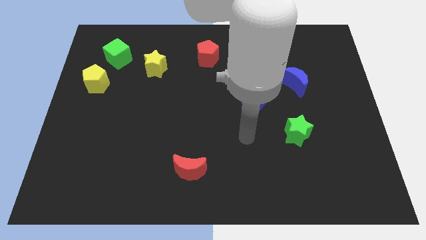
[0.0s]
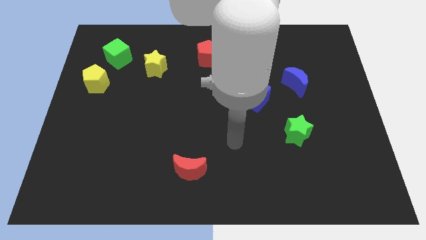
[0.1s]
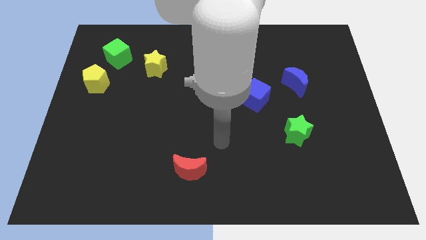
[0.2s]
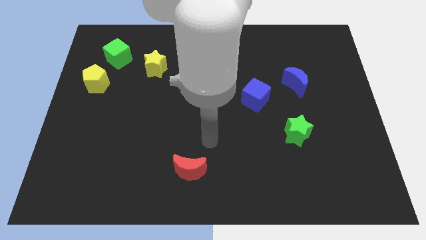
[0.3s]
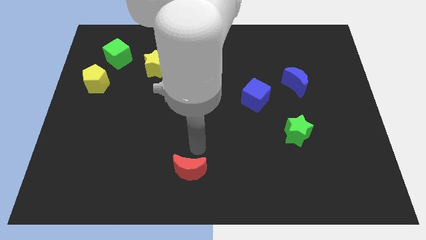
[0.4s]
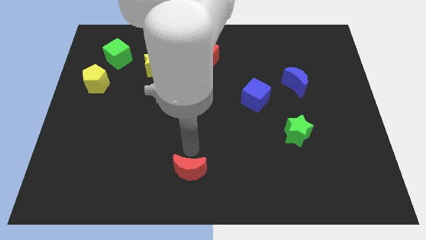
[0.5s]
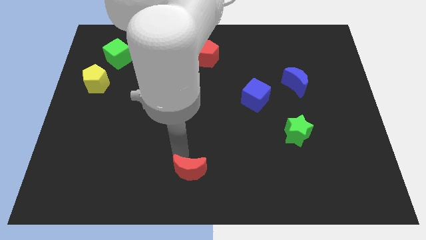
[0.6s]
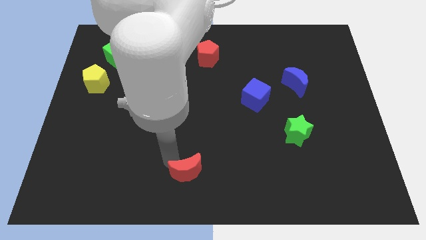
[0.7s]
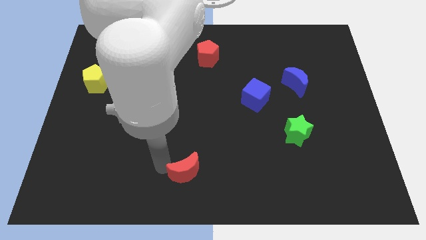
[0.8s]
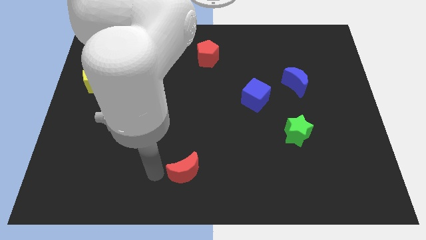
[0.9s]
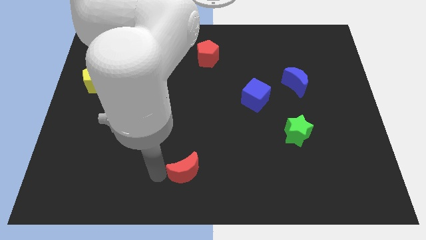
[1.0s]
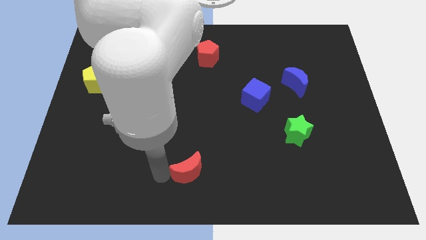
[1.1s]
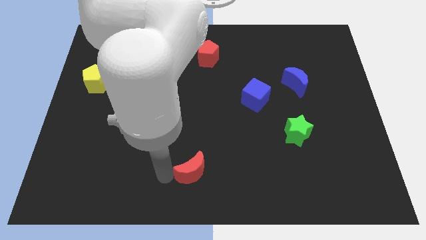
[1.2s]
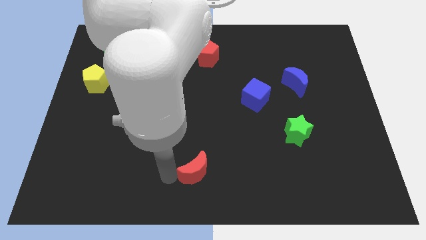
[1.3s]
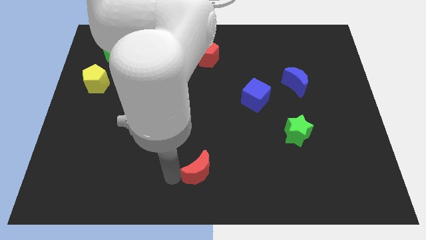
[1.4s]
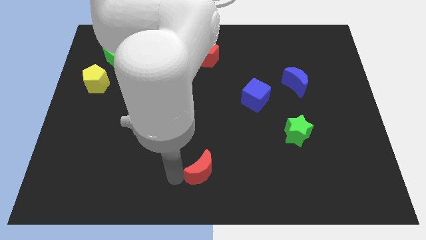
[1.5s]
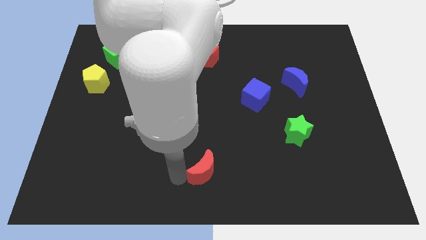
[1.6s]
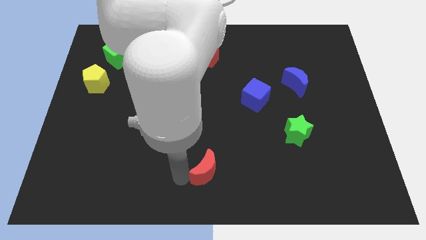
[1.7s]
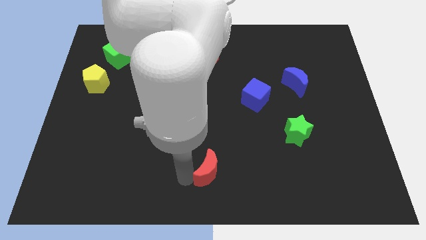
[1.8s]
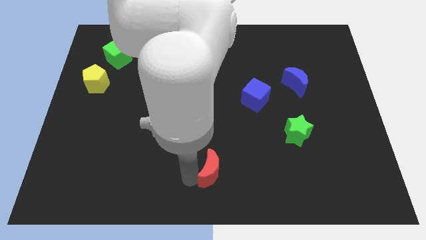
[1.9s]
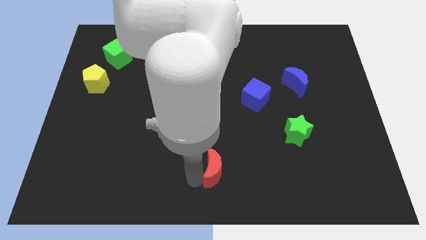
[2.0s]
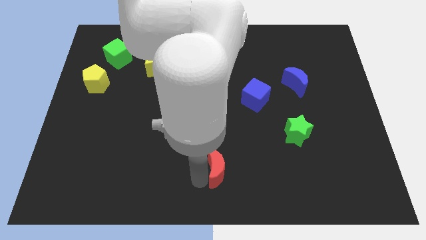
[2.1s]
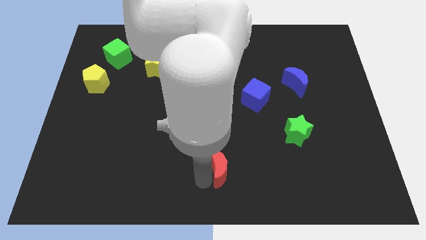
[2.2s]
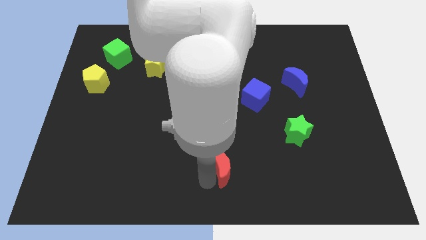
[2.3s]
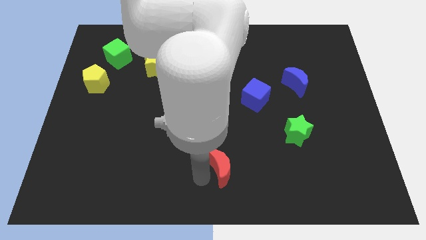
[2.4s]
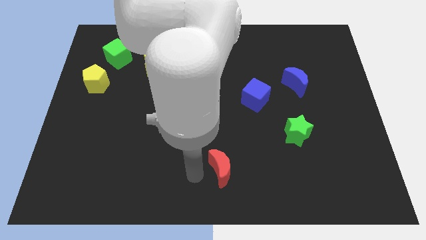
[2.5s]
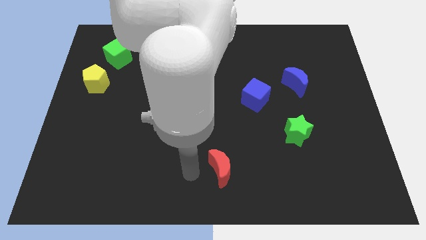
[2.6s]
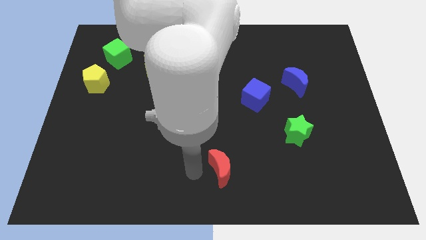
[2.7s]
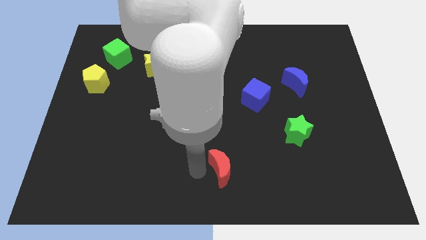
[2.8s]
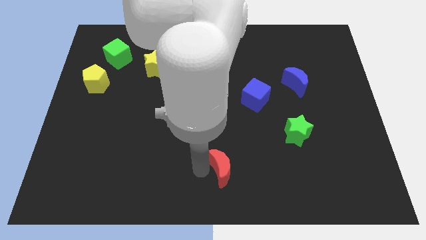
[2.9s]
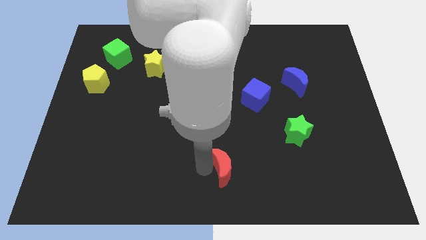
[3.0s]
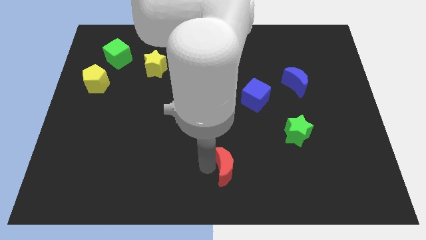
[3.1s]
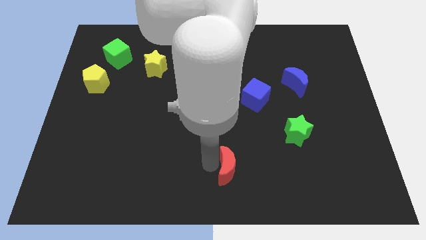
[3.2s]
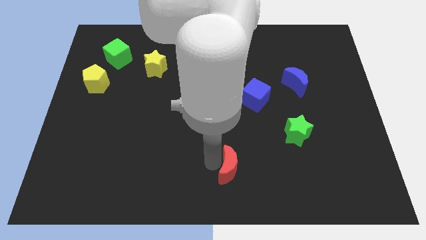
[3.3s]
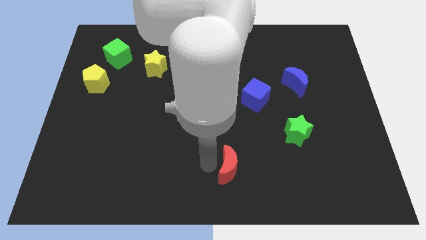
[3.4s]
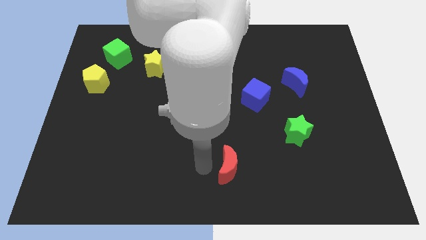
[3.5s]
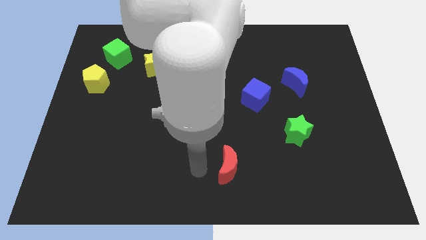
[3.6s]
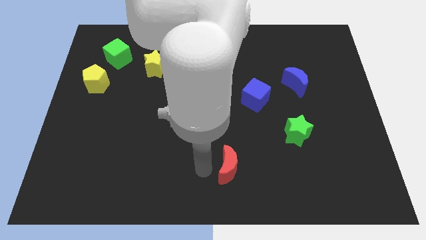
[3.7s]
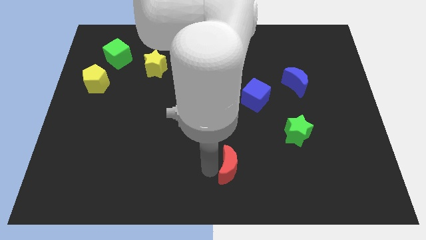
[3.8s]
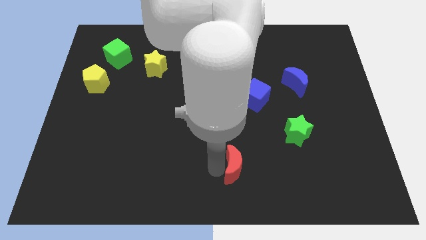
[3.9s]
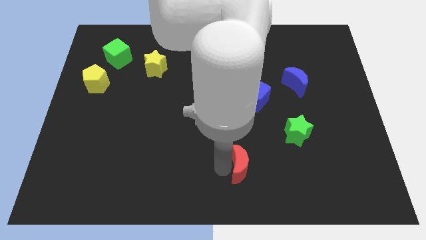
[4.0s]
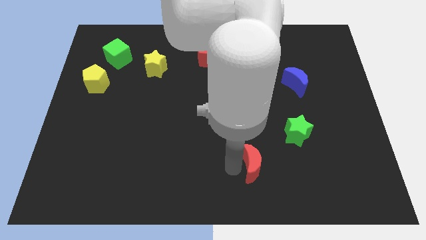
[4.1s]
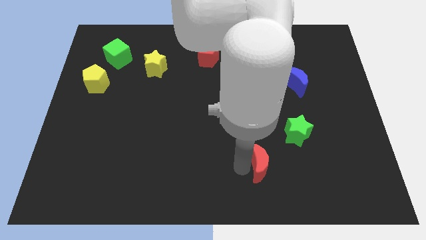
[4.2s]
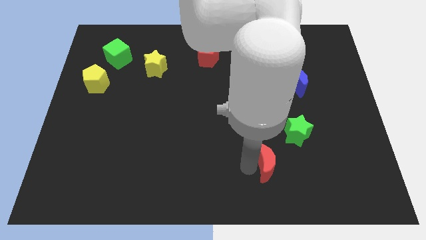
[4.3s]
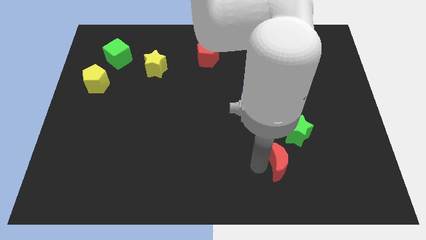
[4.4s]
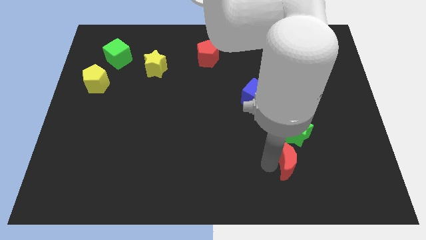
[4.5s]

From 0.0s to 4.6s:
push the red moon right

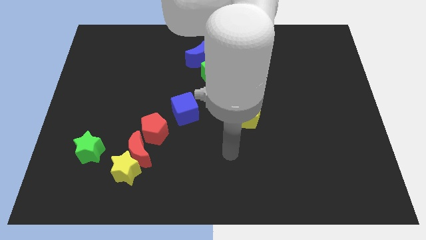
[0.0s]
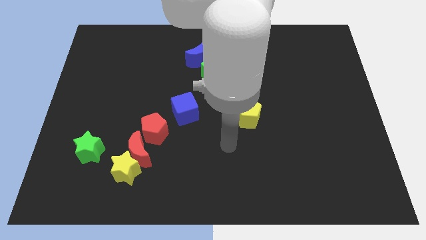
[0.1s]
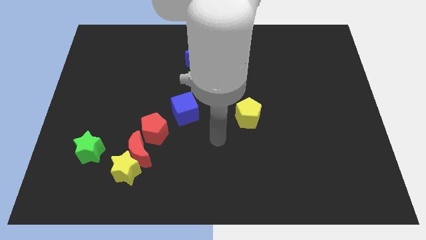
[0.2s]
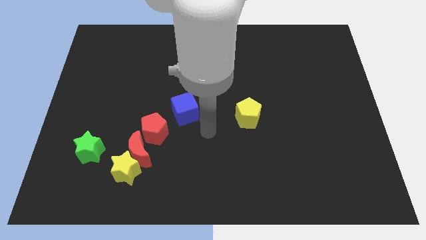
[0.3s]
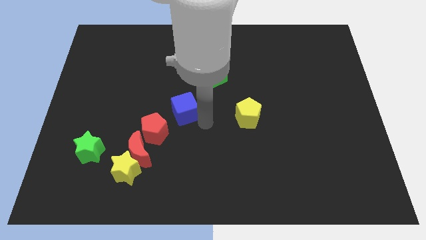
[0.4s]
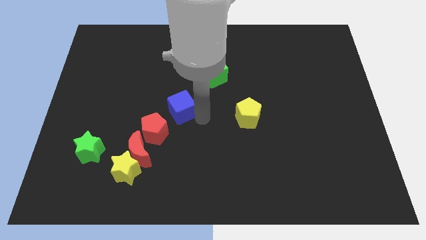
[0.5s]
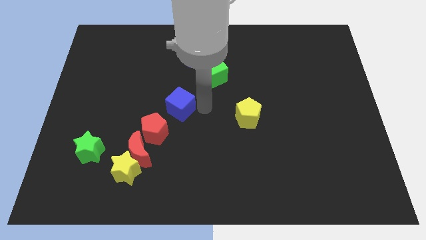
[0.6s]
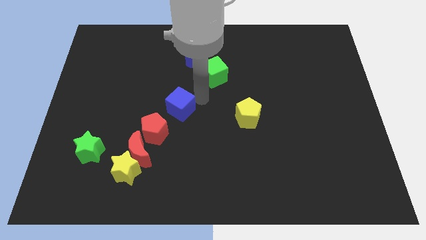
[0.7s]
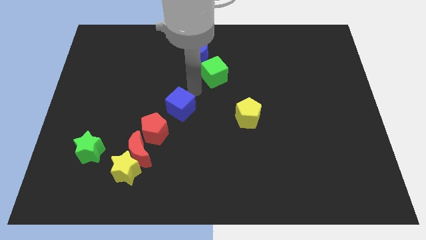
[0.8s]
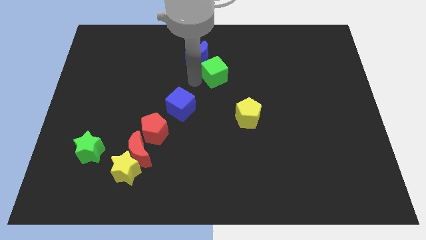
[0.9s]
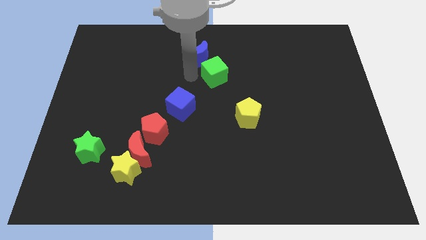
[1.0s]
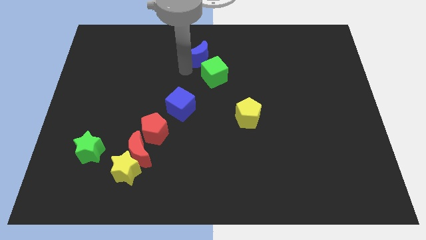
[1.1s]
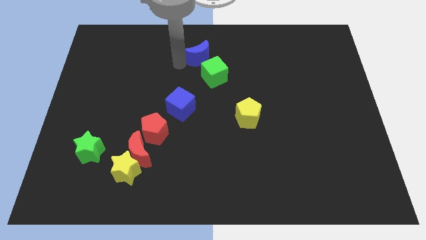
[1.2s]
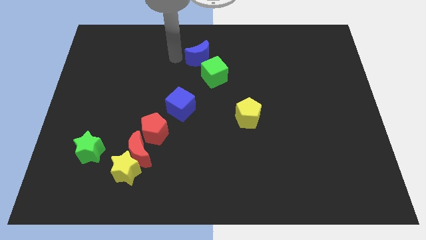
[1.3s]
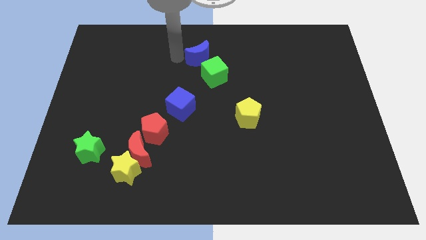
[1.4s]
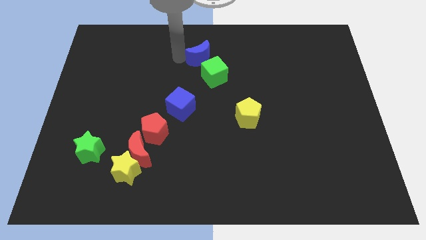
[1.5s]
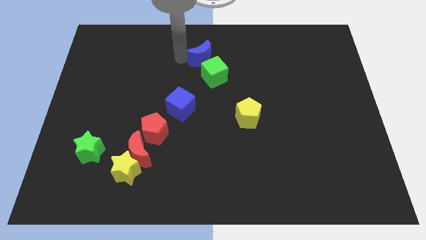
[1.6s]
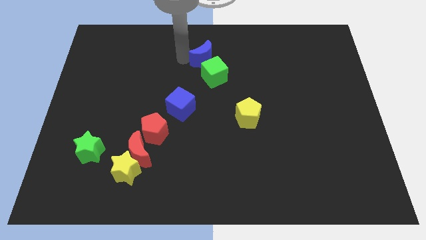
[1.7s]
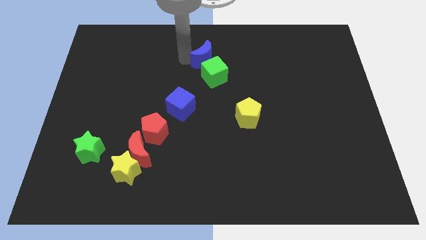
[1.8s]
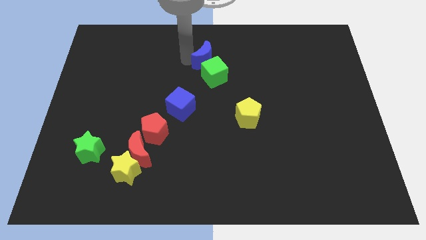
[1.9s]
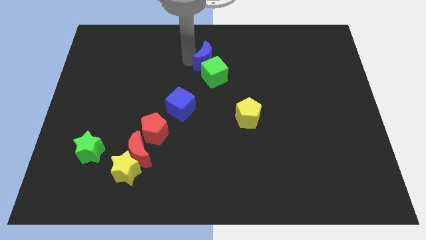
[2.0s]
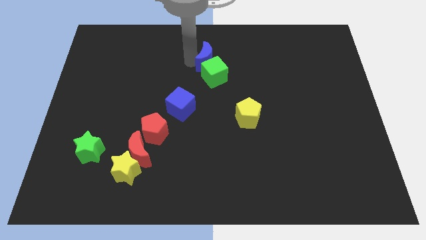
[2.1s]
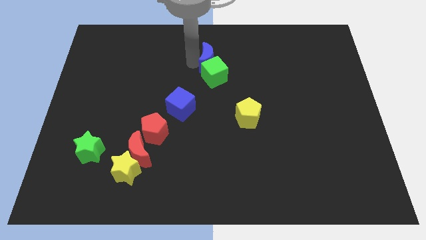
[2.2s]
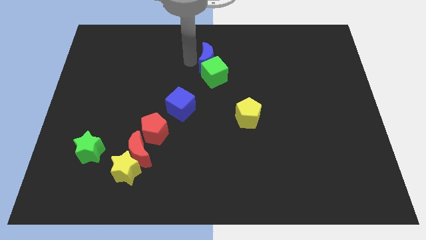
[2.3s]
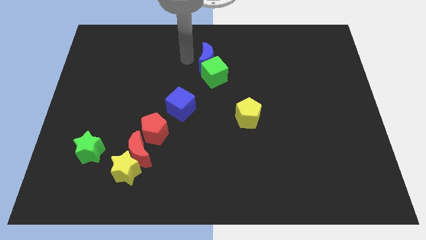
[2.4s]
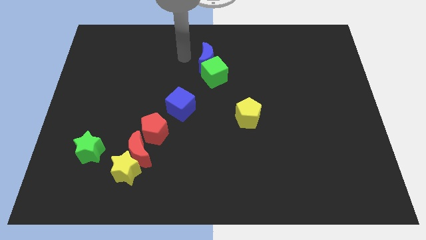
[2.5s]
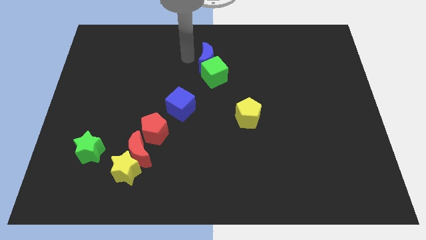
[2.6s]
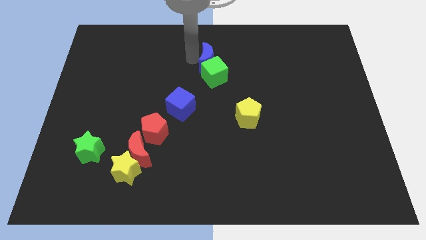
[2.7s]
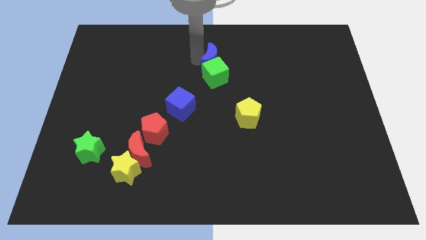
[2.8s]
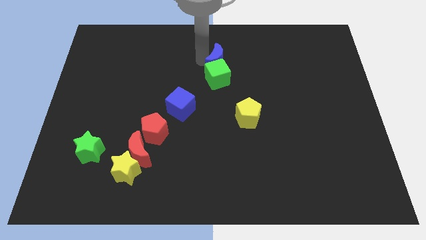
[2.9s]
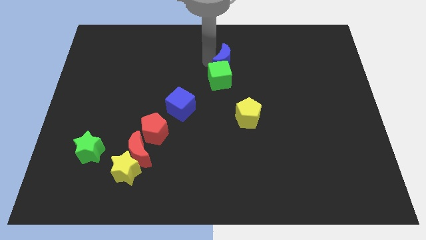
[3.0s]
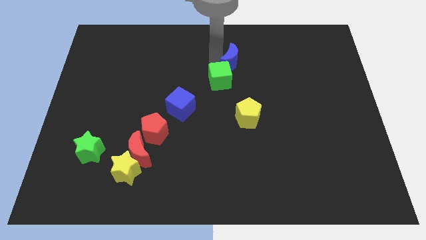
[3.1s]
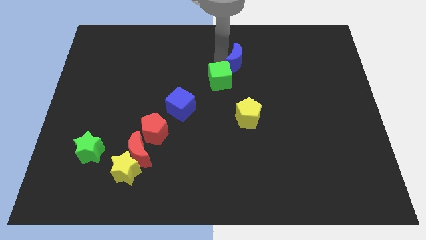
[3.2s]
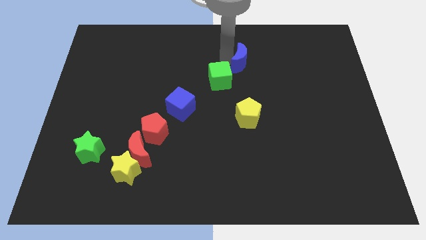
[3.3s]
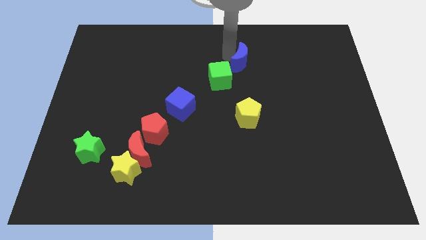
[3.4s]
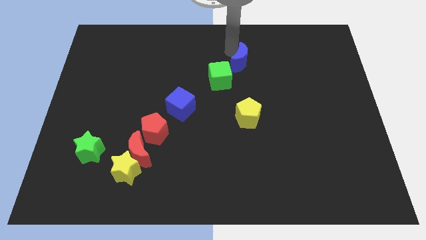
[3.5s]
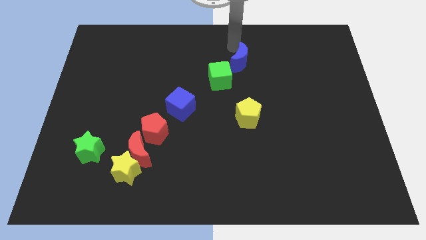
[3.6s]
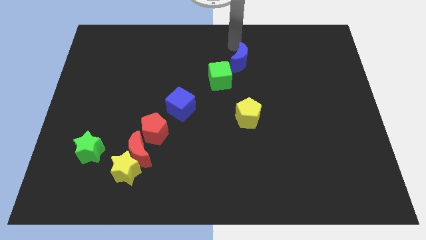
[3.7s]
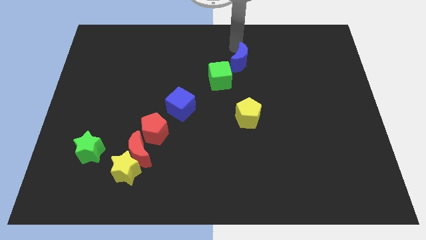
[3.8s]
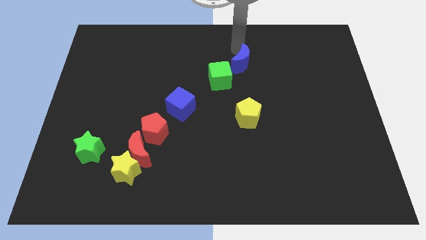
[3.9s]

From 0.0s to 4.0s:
slightly move the blue moon downwards and to the right diagonally

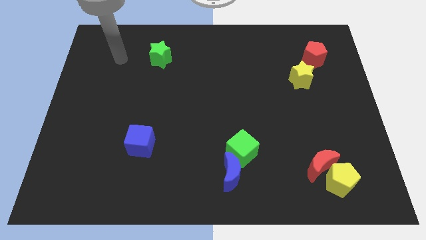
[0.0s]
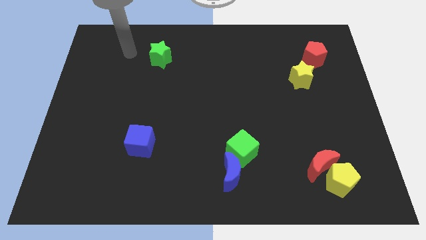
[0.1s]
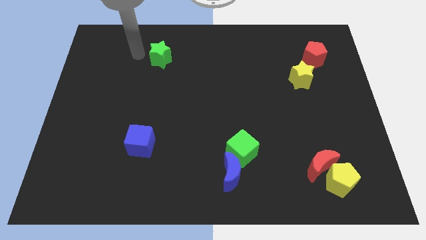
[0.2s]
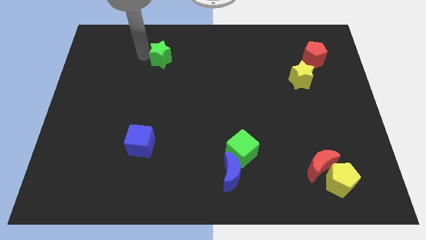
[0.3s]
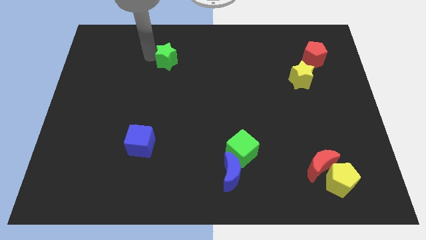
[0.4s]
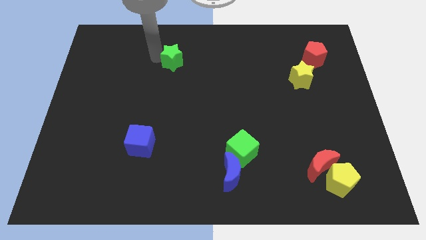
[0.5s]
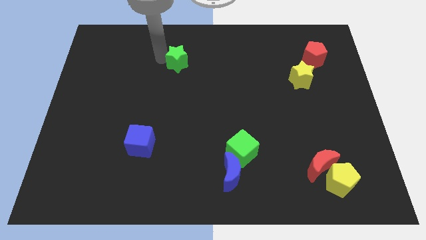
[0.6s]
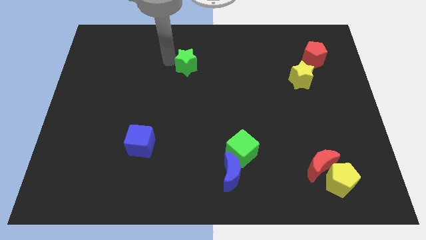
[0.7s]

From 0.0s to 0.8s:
move the green star right a little
